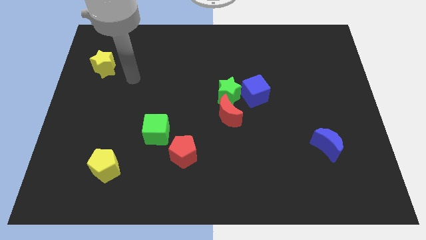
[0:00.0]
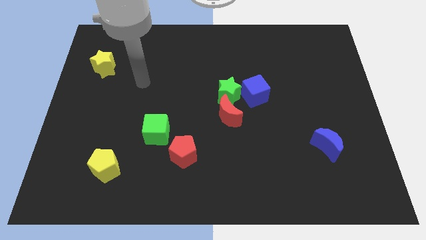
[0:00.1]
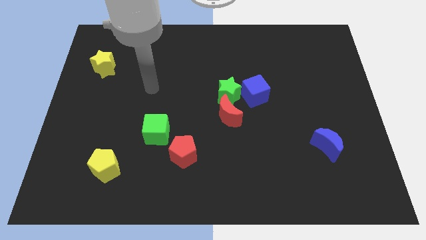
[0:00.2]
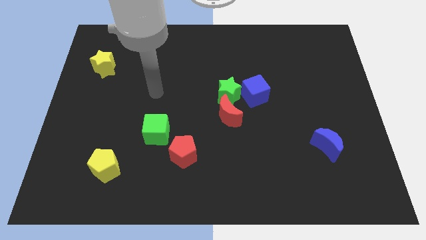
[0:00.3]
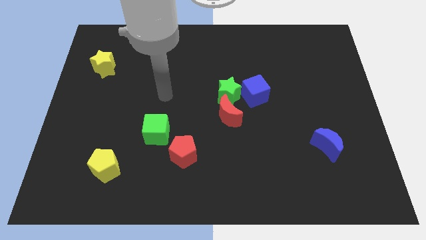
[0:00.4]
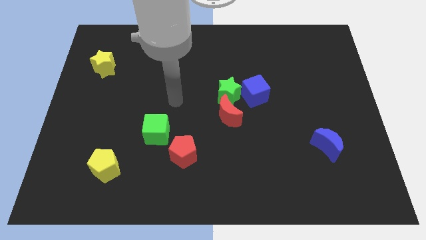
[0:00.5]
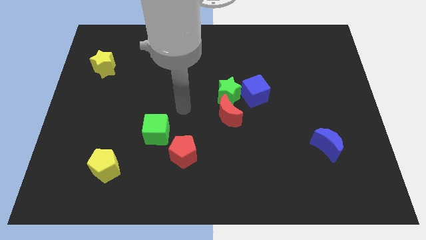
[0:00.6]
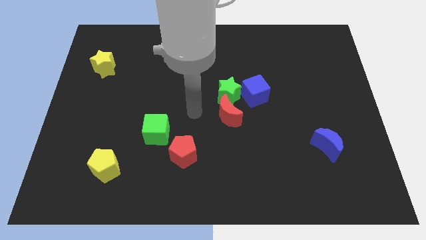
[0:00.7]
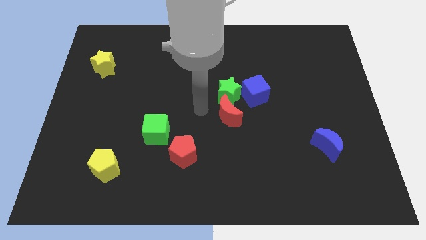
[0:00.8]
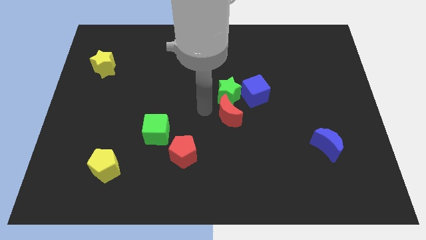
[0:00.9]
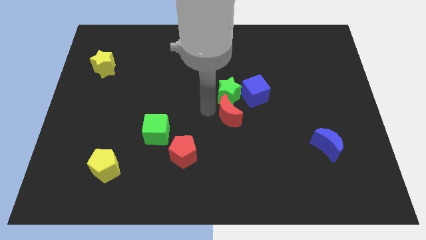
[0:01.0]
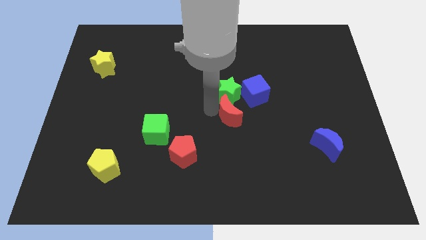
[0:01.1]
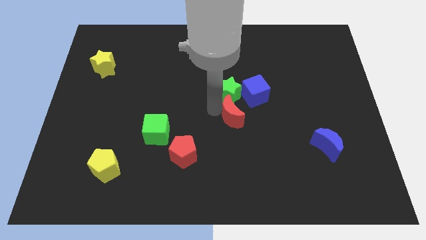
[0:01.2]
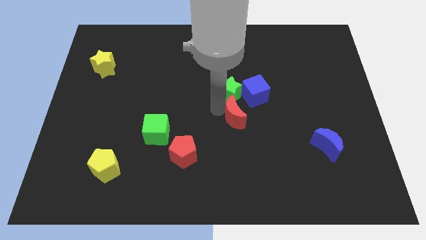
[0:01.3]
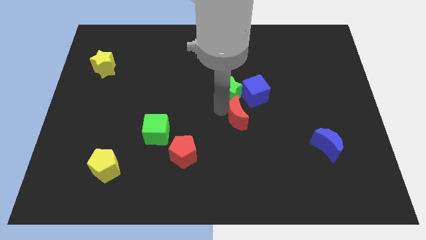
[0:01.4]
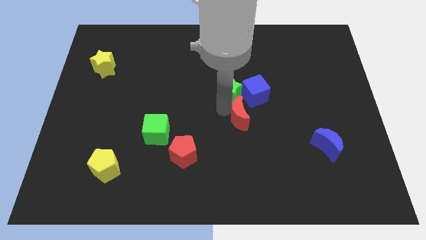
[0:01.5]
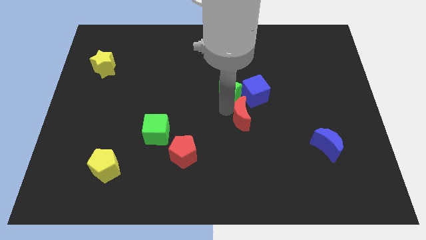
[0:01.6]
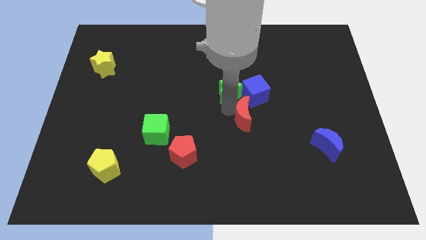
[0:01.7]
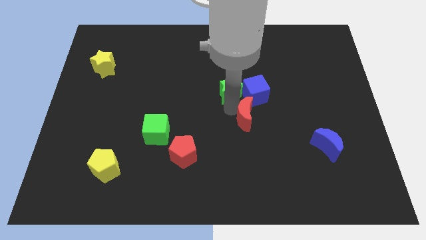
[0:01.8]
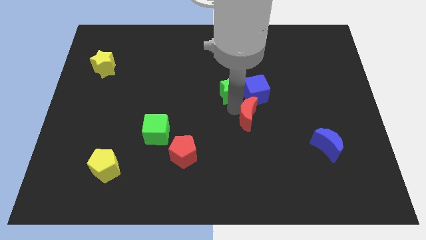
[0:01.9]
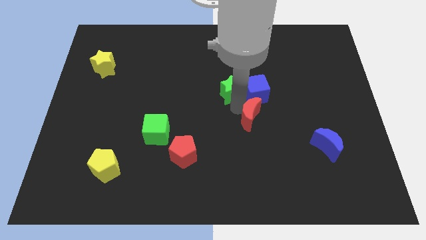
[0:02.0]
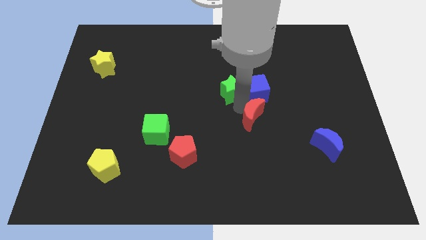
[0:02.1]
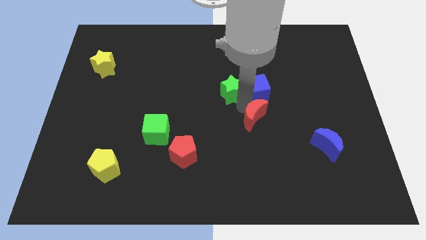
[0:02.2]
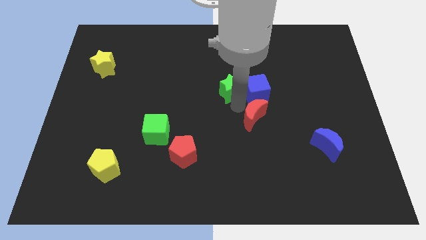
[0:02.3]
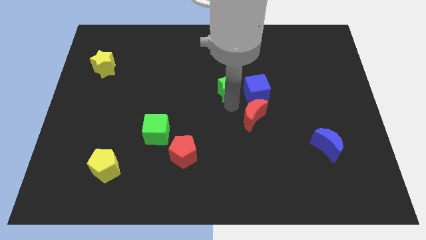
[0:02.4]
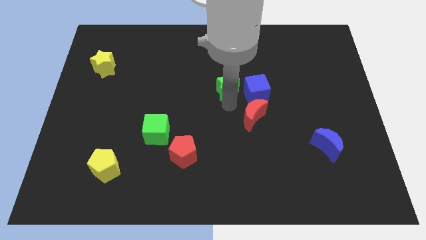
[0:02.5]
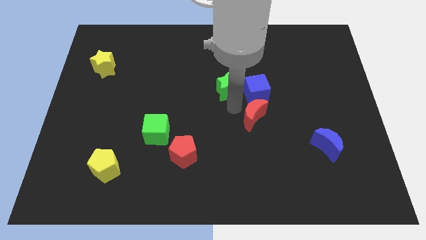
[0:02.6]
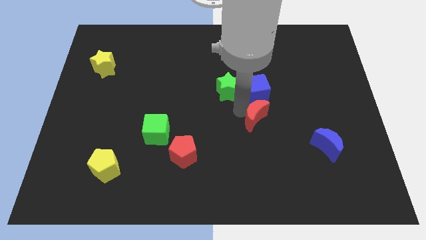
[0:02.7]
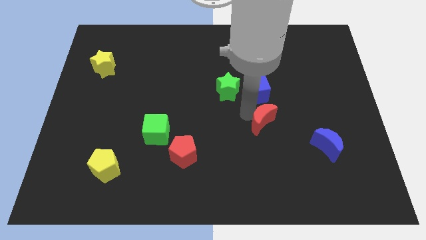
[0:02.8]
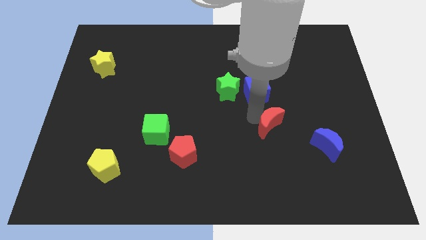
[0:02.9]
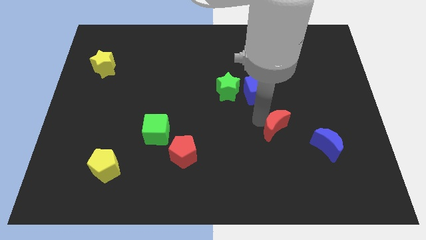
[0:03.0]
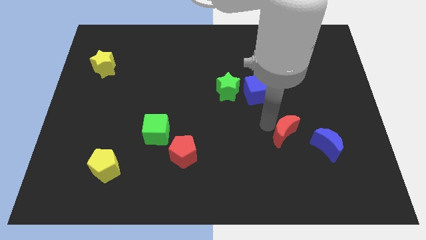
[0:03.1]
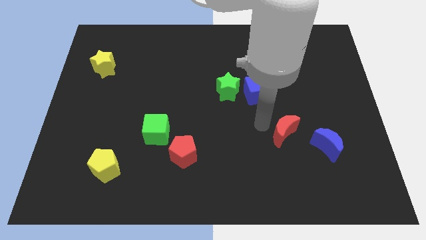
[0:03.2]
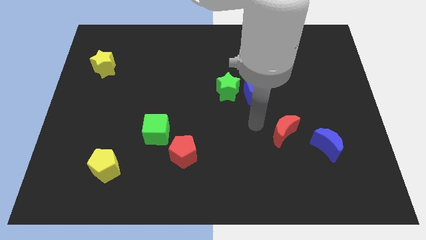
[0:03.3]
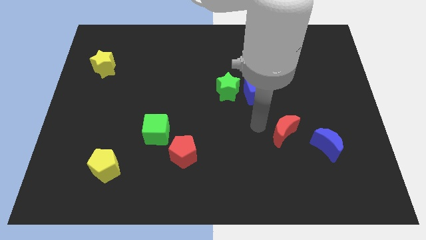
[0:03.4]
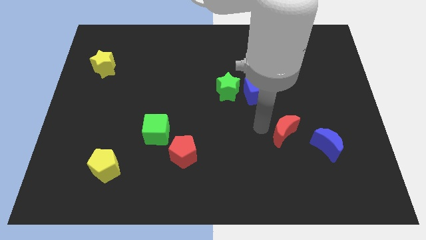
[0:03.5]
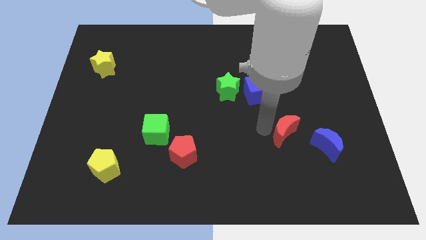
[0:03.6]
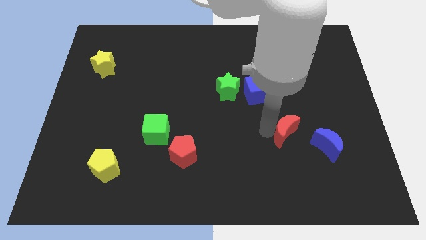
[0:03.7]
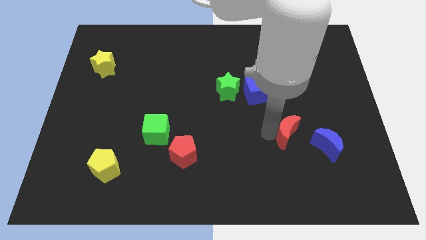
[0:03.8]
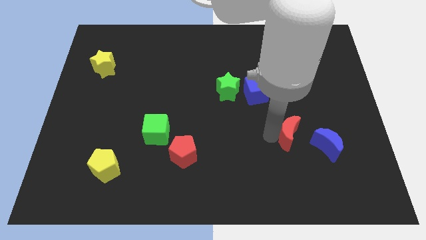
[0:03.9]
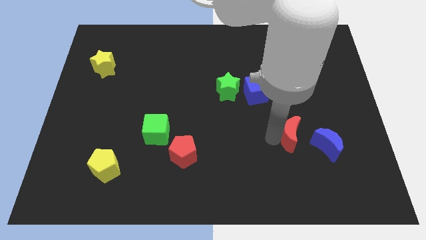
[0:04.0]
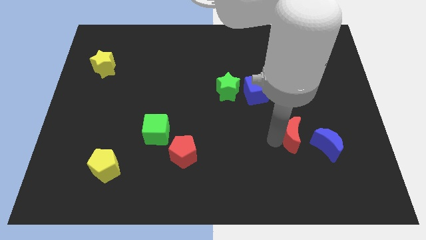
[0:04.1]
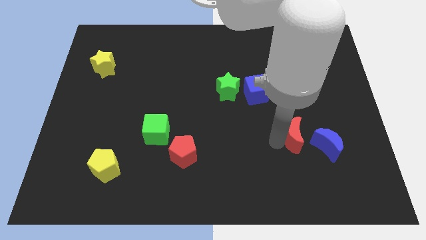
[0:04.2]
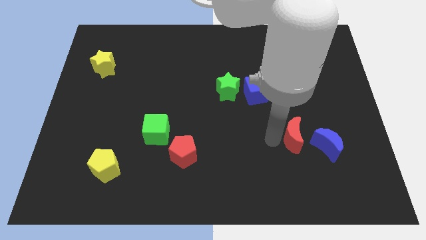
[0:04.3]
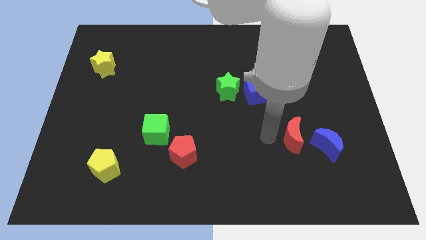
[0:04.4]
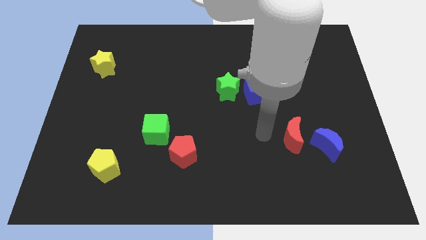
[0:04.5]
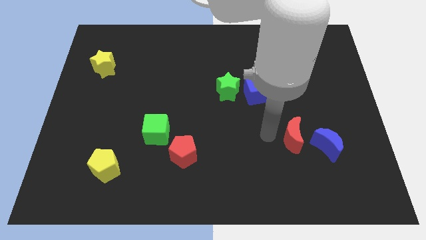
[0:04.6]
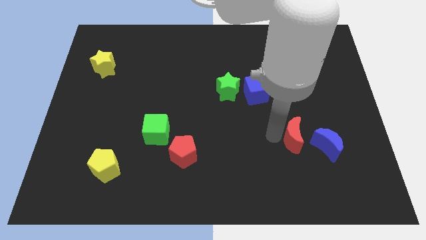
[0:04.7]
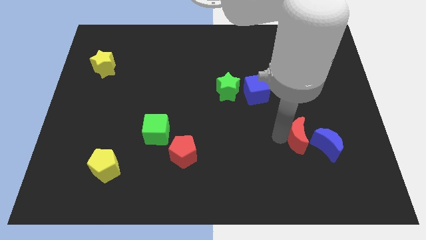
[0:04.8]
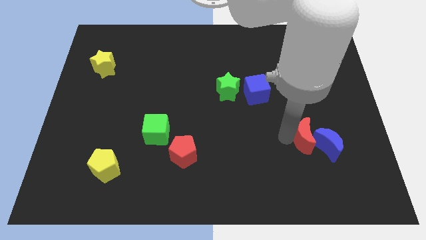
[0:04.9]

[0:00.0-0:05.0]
slide the red moon towards the blue moon

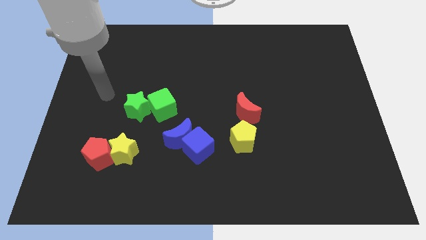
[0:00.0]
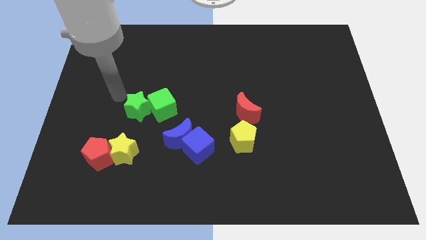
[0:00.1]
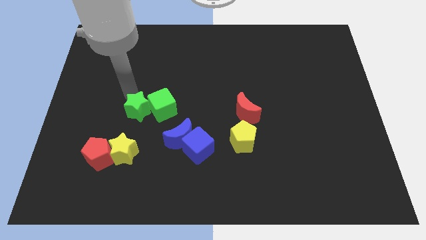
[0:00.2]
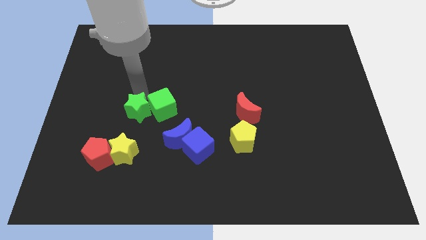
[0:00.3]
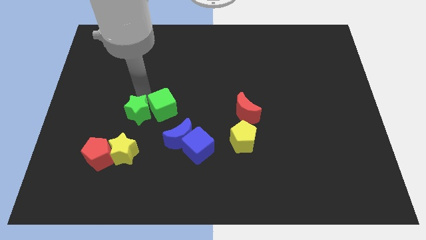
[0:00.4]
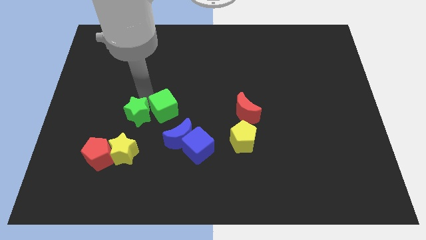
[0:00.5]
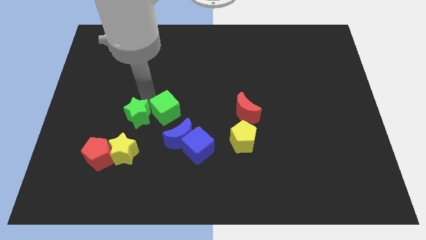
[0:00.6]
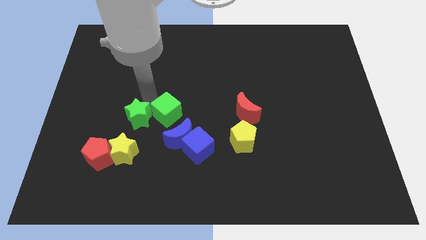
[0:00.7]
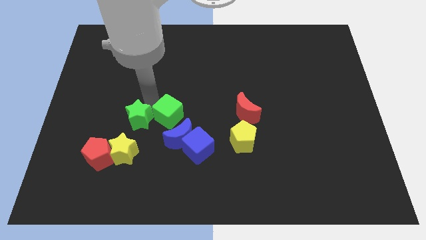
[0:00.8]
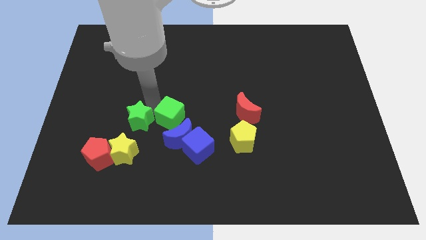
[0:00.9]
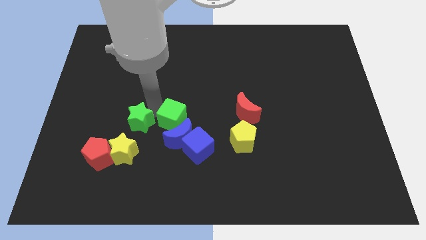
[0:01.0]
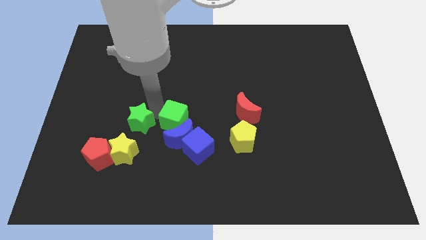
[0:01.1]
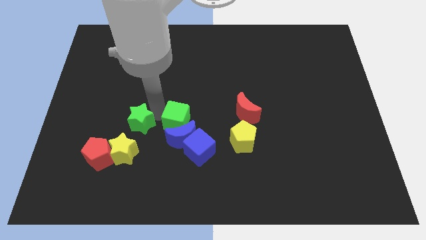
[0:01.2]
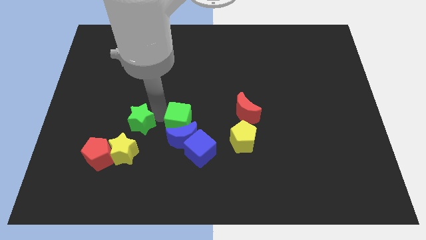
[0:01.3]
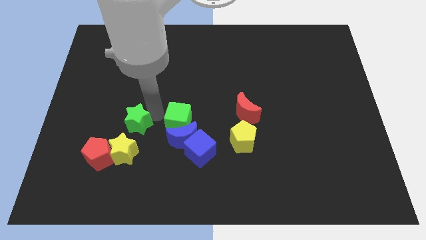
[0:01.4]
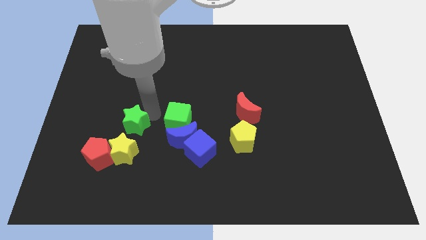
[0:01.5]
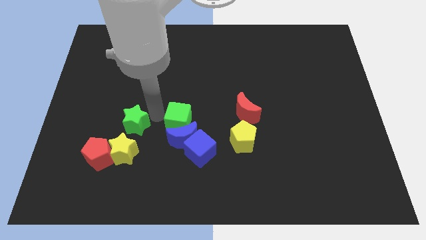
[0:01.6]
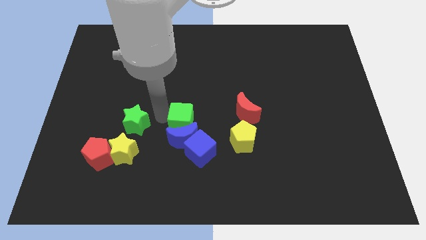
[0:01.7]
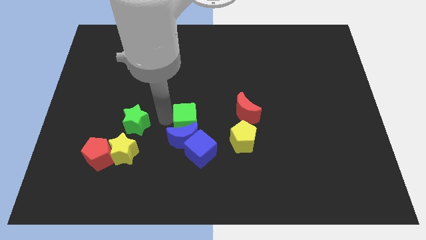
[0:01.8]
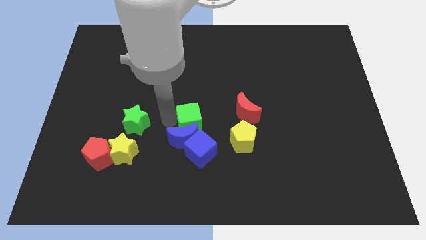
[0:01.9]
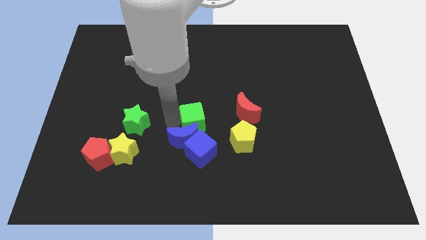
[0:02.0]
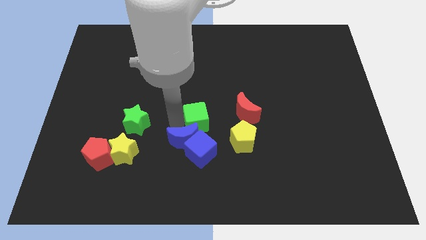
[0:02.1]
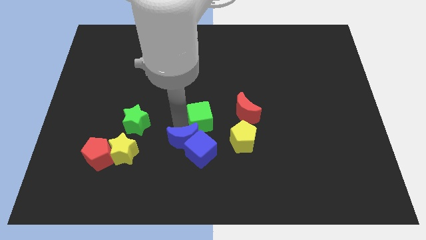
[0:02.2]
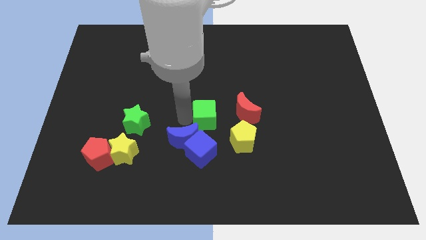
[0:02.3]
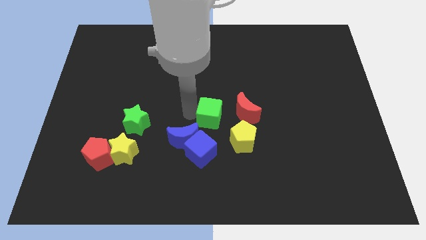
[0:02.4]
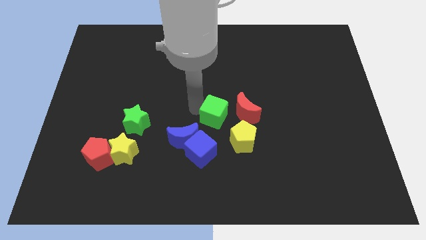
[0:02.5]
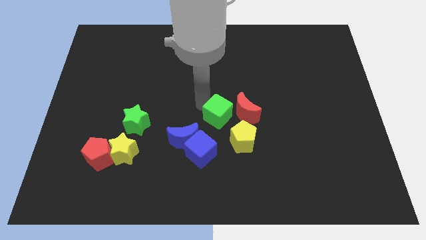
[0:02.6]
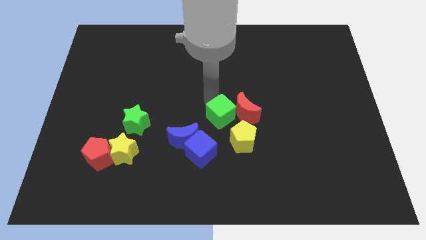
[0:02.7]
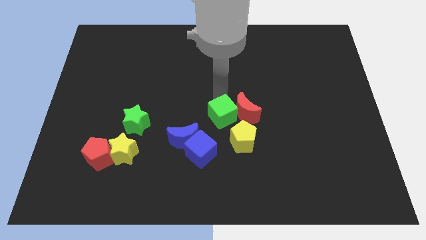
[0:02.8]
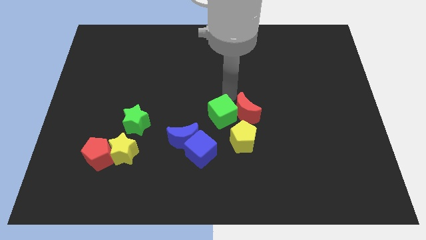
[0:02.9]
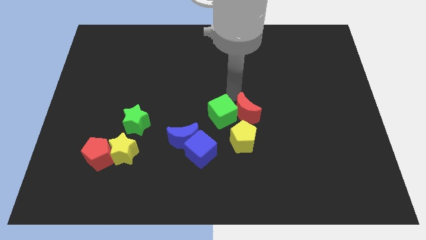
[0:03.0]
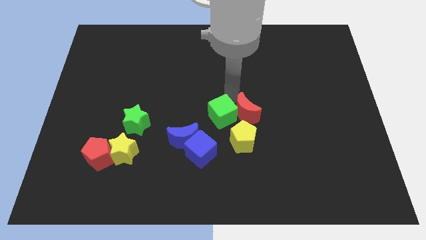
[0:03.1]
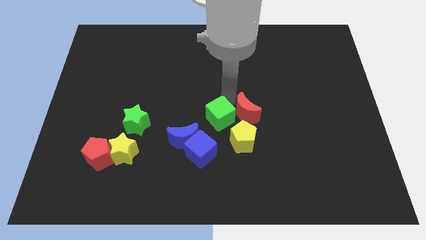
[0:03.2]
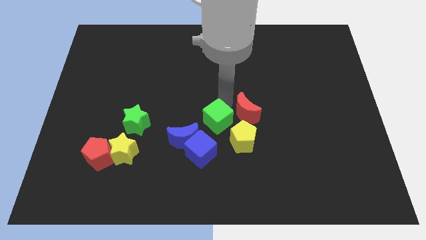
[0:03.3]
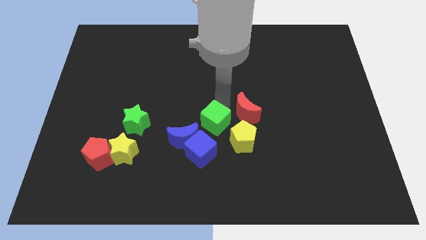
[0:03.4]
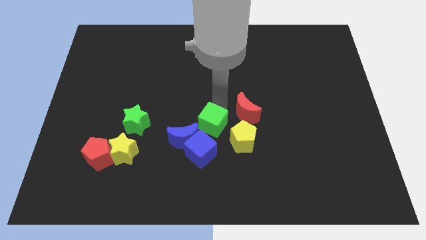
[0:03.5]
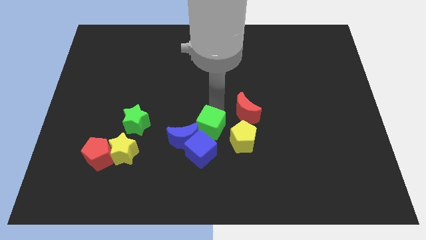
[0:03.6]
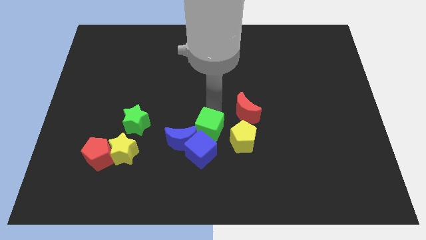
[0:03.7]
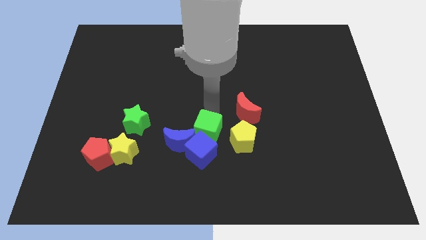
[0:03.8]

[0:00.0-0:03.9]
slide the green cube towards the blue cube
